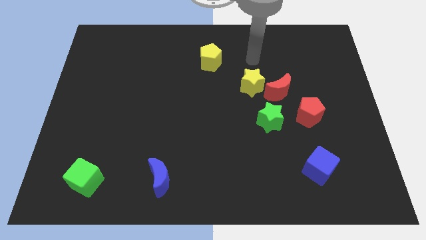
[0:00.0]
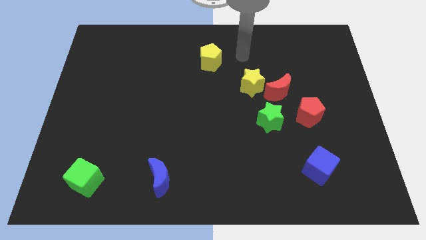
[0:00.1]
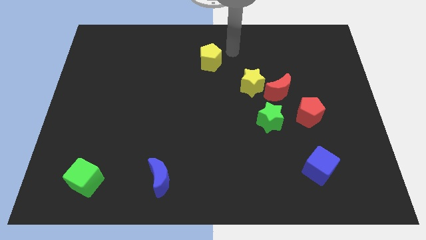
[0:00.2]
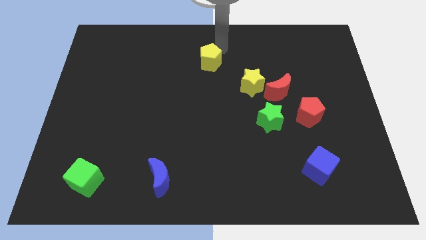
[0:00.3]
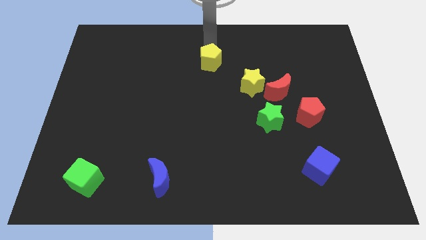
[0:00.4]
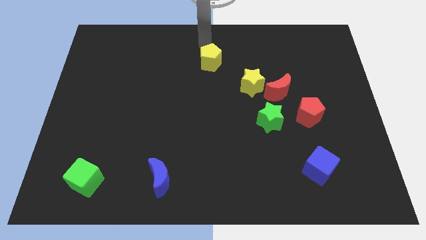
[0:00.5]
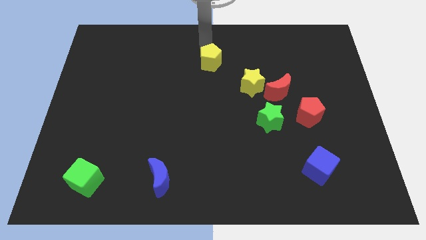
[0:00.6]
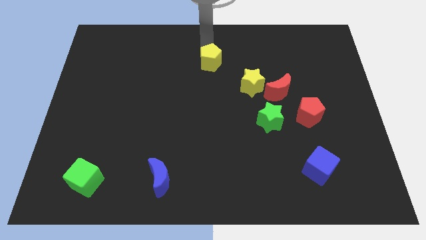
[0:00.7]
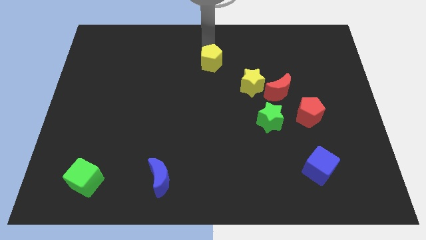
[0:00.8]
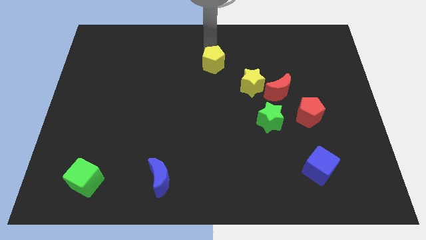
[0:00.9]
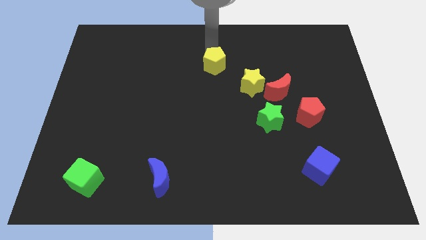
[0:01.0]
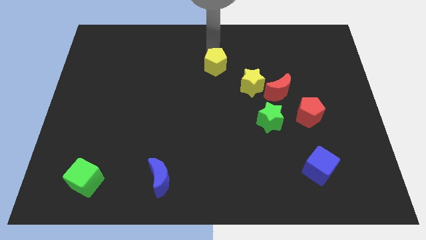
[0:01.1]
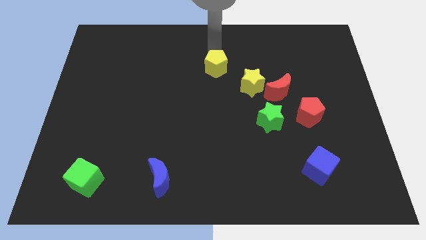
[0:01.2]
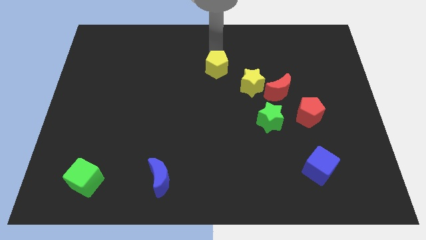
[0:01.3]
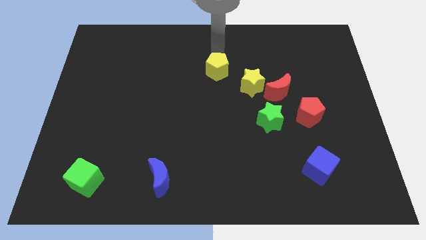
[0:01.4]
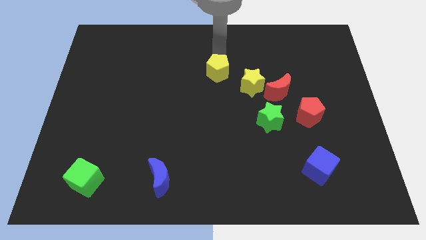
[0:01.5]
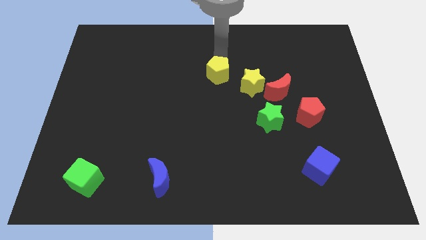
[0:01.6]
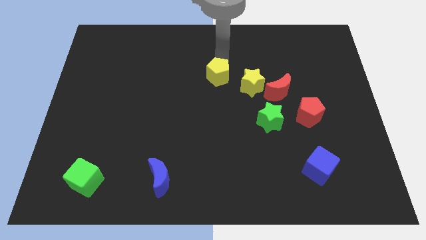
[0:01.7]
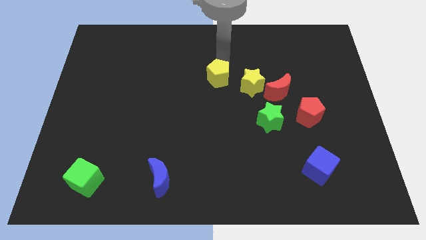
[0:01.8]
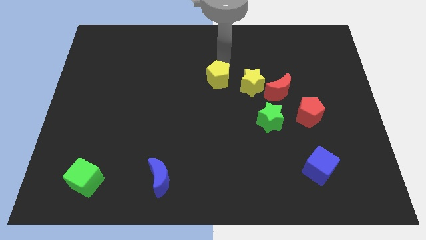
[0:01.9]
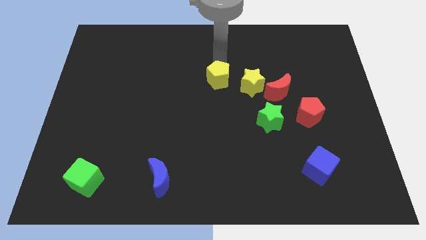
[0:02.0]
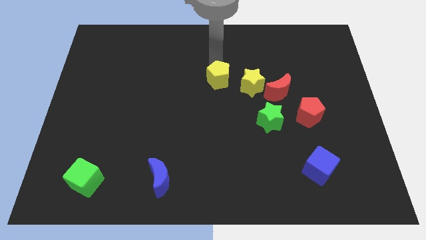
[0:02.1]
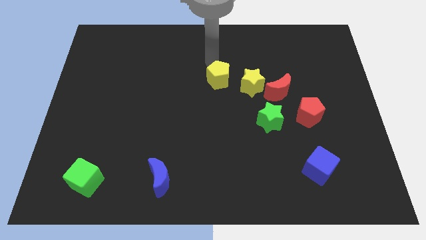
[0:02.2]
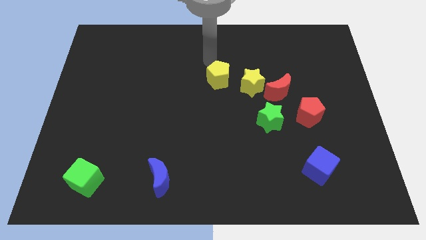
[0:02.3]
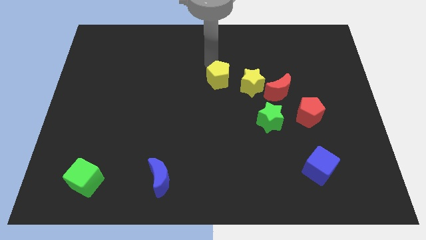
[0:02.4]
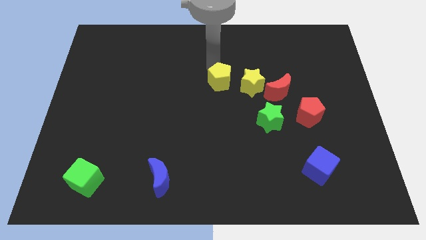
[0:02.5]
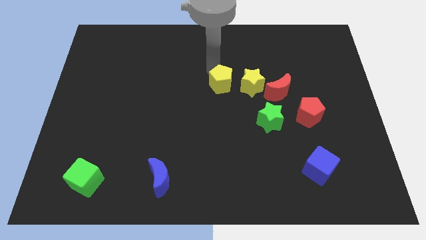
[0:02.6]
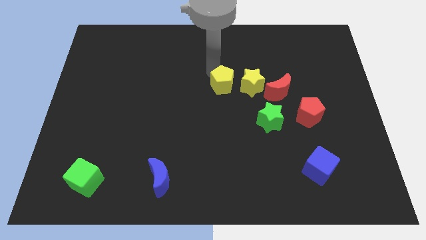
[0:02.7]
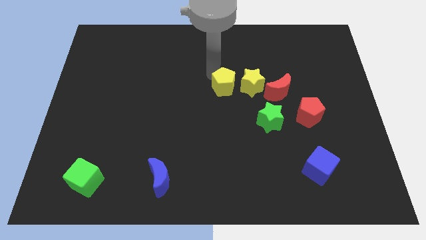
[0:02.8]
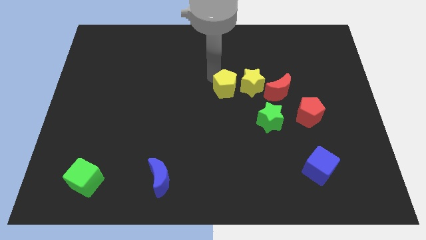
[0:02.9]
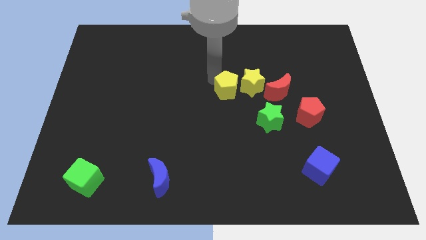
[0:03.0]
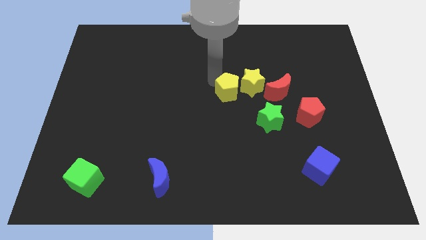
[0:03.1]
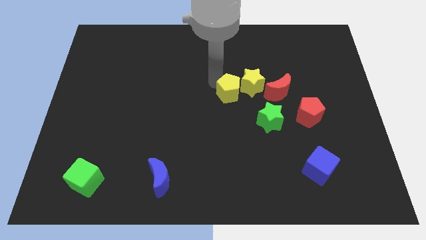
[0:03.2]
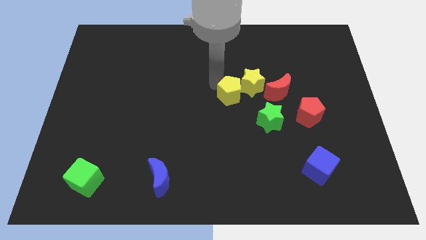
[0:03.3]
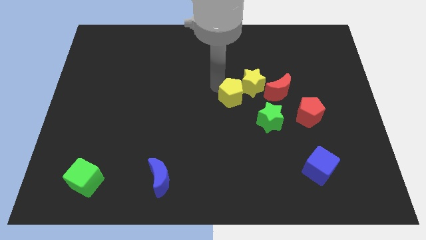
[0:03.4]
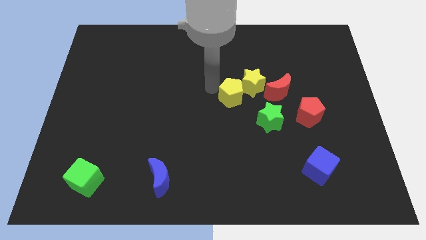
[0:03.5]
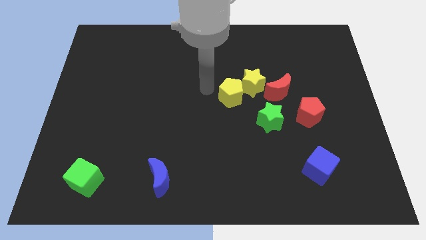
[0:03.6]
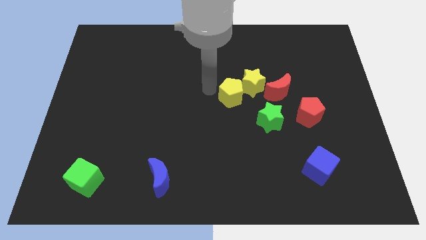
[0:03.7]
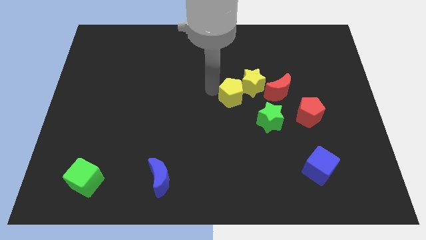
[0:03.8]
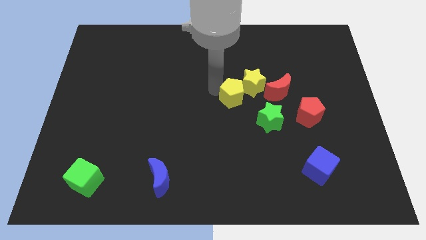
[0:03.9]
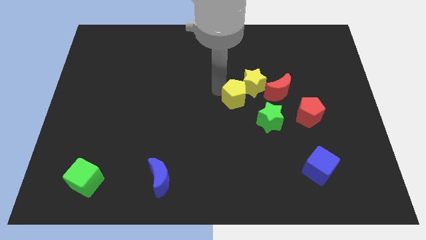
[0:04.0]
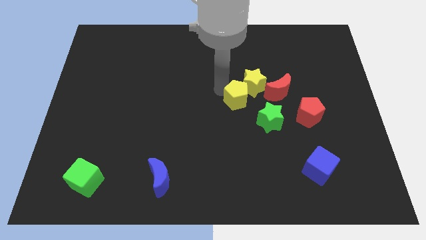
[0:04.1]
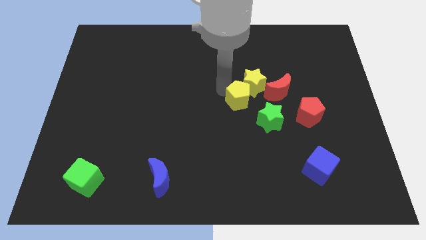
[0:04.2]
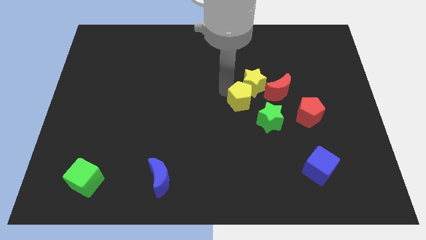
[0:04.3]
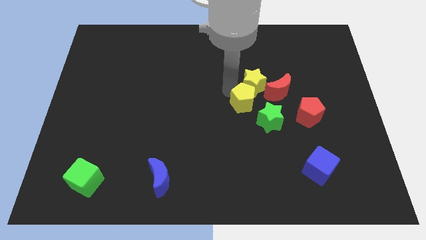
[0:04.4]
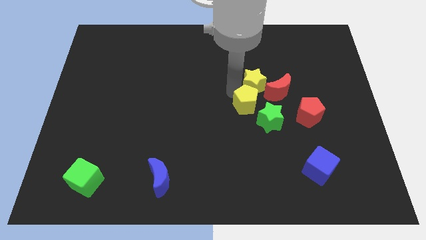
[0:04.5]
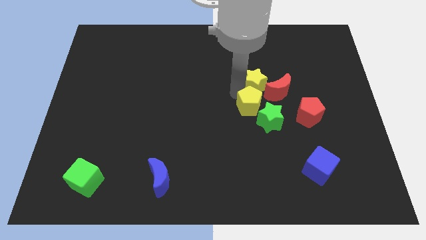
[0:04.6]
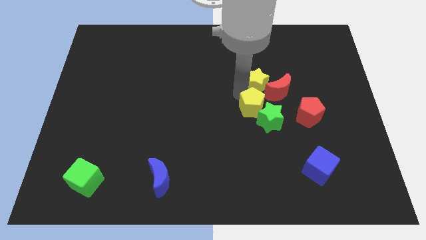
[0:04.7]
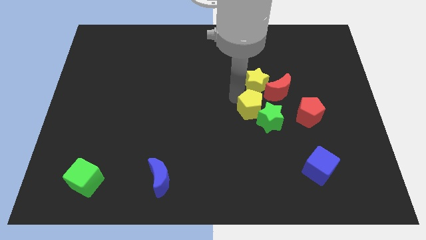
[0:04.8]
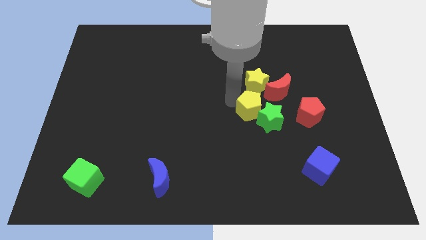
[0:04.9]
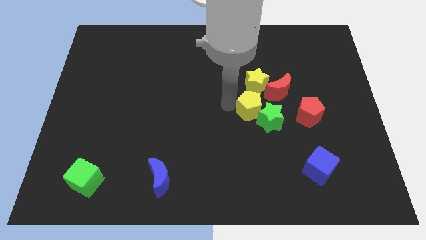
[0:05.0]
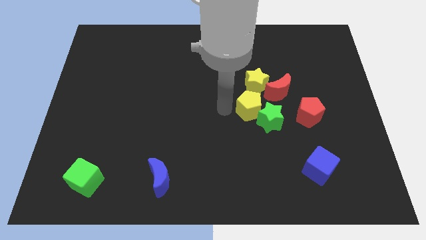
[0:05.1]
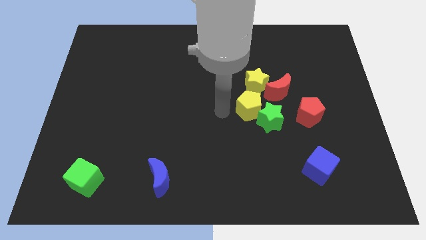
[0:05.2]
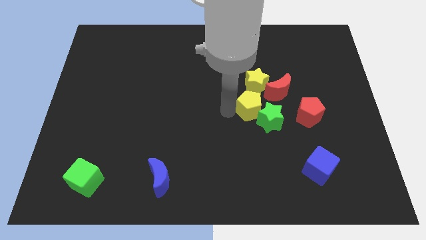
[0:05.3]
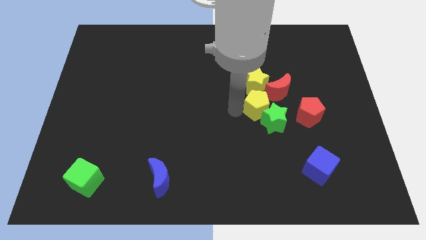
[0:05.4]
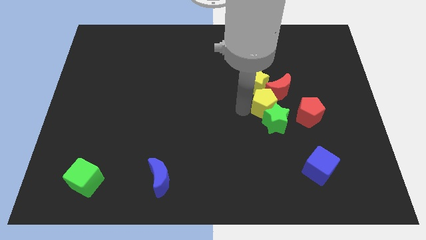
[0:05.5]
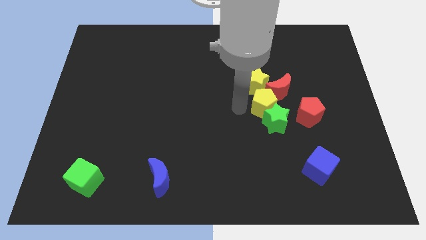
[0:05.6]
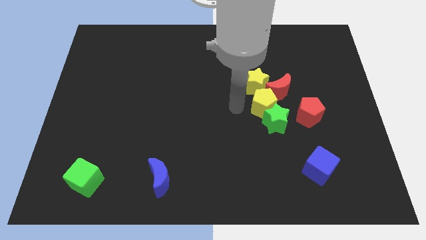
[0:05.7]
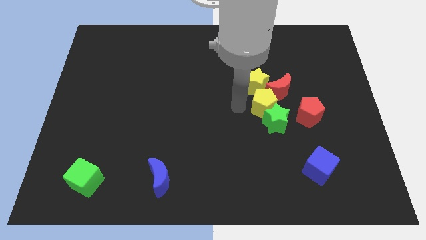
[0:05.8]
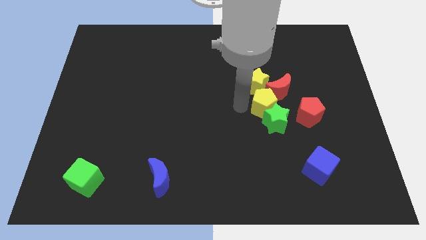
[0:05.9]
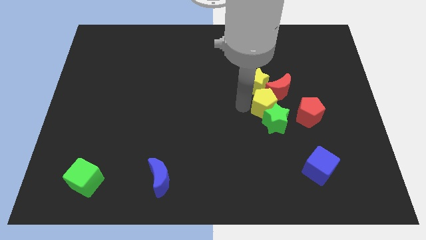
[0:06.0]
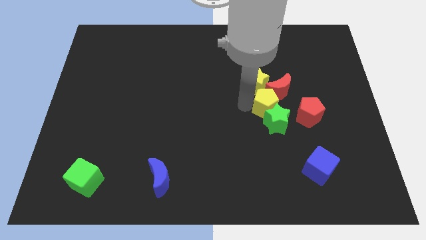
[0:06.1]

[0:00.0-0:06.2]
move the yellow pentagon diagonally down and right

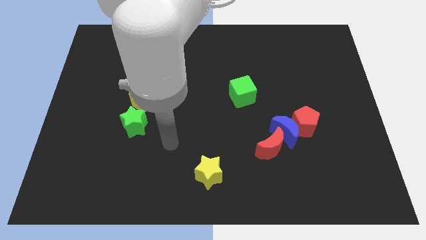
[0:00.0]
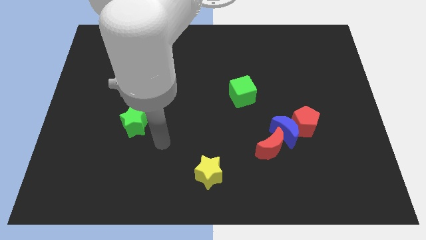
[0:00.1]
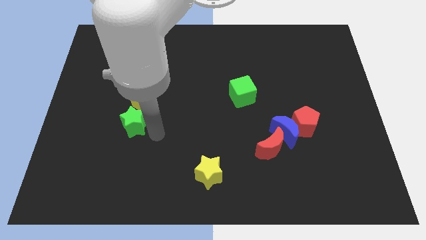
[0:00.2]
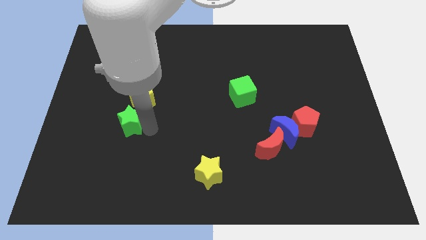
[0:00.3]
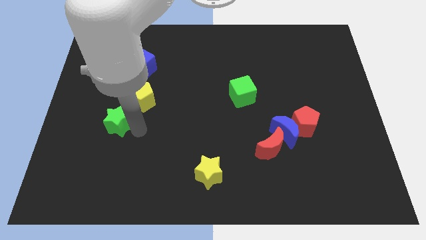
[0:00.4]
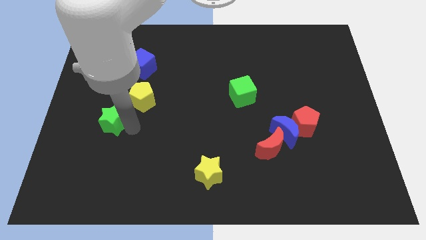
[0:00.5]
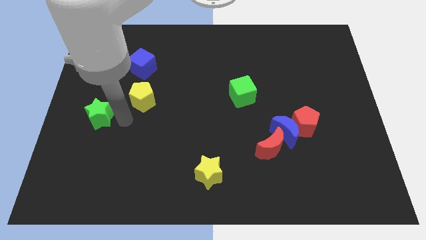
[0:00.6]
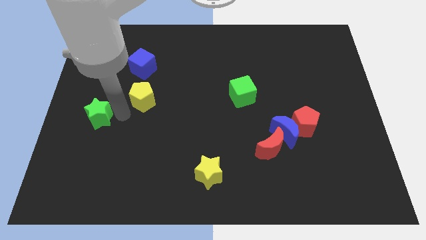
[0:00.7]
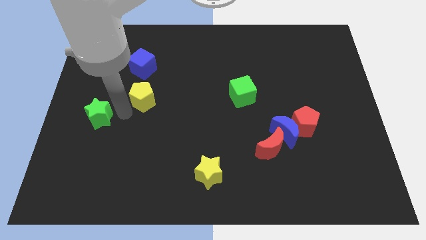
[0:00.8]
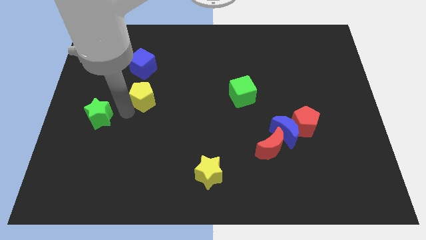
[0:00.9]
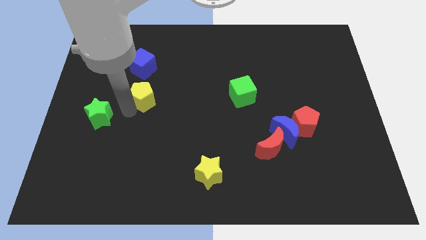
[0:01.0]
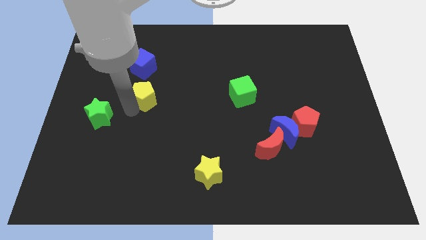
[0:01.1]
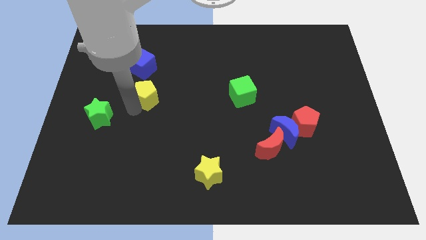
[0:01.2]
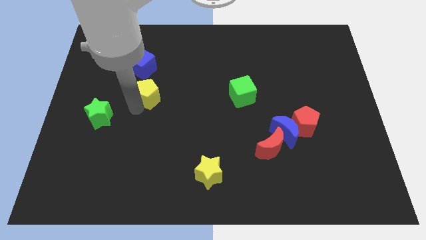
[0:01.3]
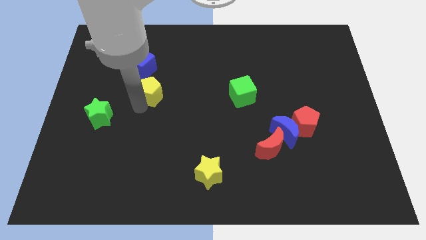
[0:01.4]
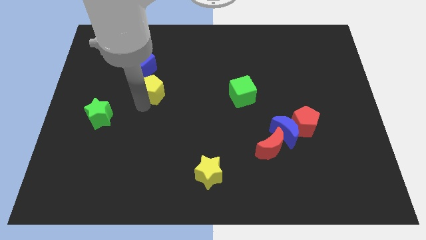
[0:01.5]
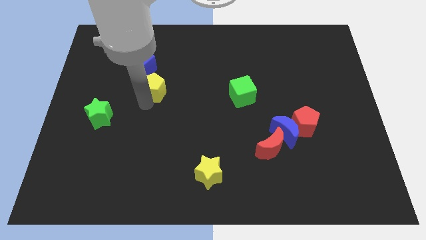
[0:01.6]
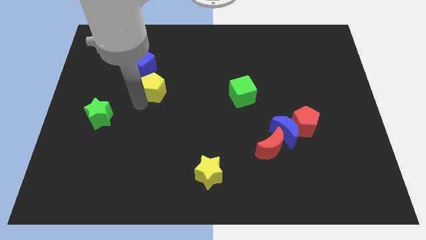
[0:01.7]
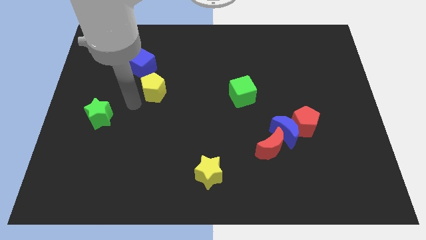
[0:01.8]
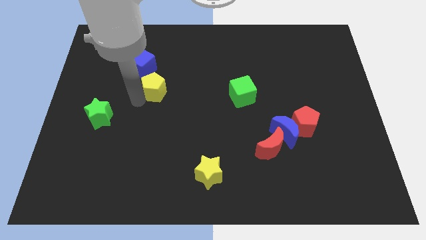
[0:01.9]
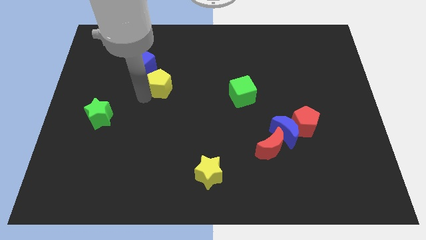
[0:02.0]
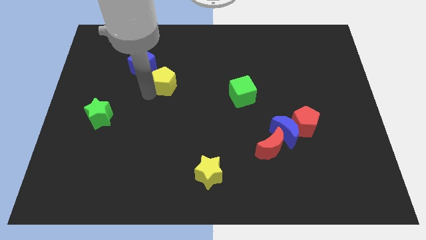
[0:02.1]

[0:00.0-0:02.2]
push the yellow pentagon slightly upwards and to the right diagonally
